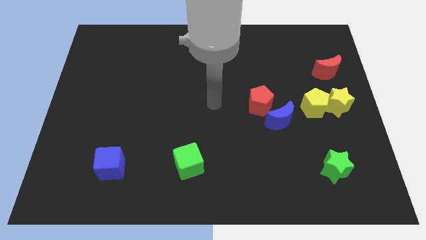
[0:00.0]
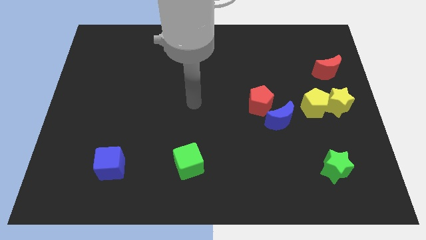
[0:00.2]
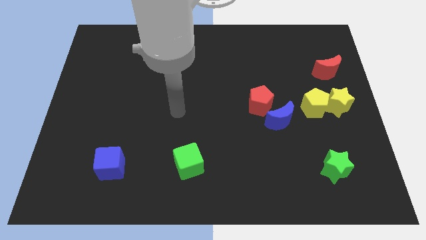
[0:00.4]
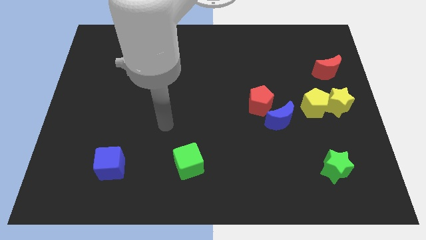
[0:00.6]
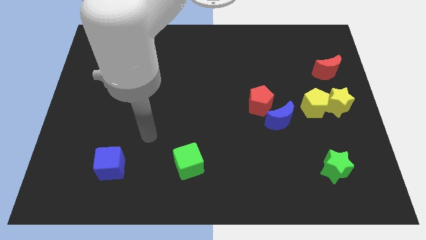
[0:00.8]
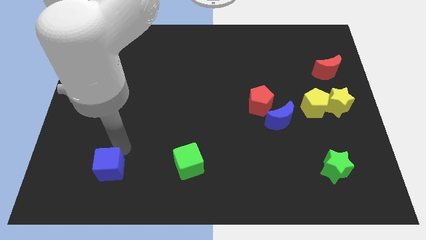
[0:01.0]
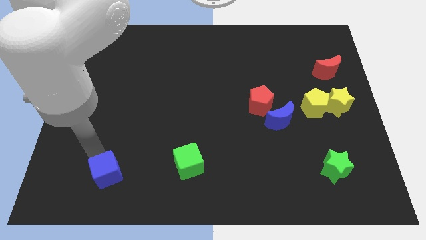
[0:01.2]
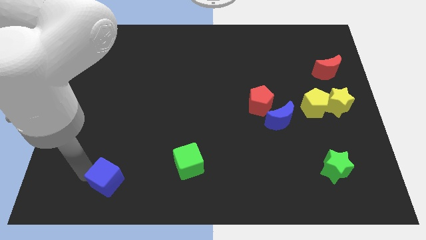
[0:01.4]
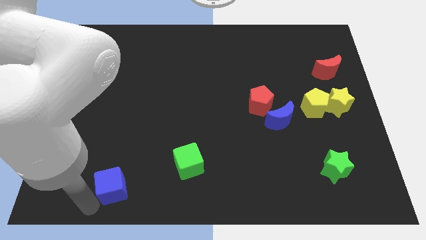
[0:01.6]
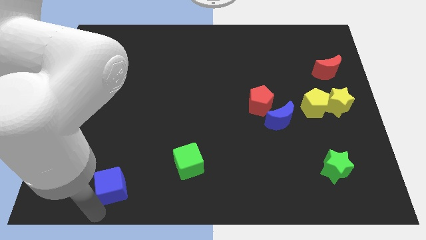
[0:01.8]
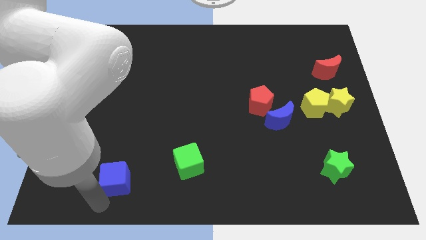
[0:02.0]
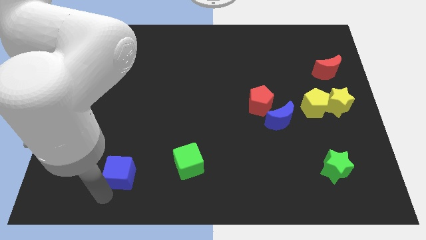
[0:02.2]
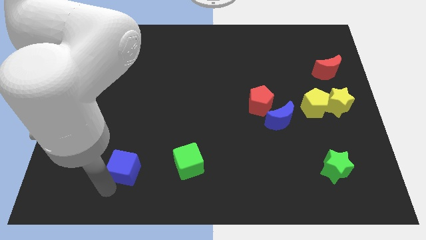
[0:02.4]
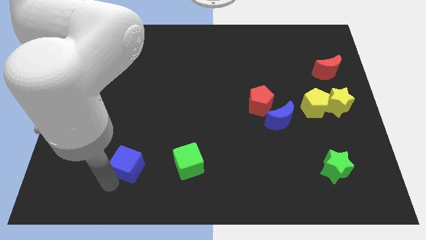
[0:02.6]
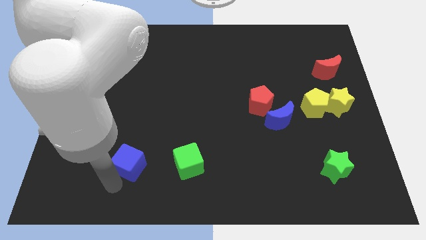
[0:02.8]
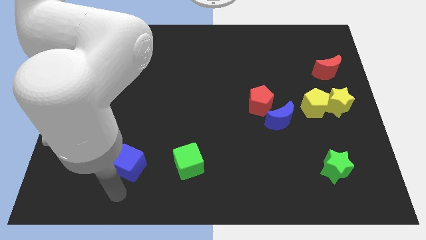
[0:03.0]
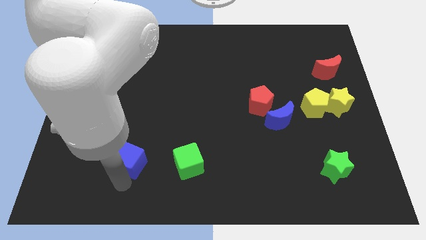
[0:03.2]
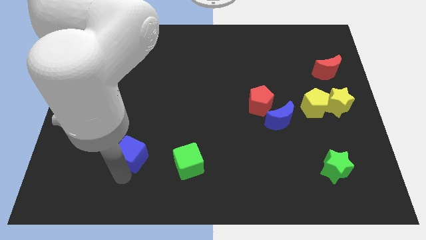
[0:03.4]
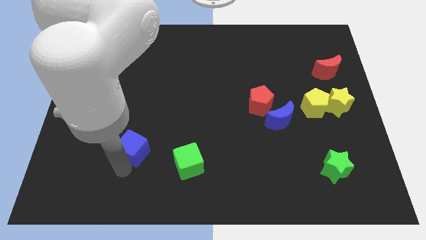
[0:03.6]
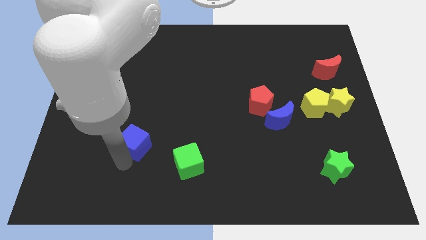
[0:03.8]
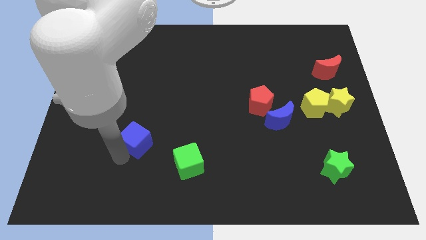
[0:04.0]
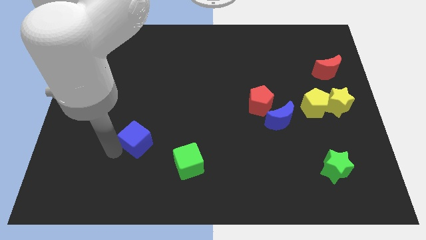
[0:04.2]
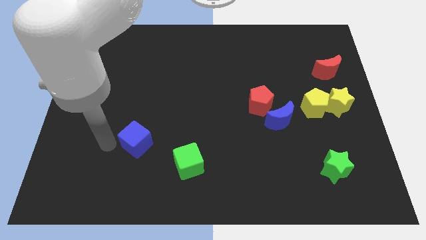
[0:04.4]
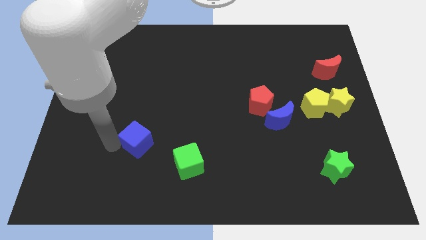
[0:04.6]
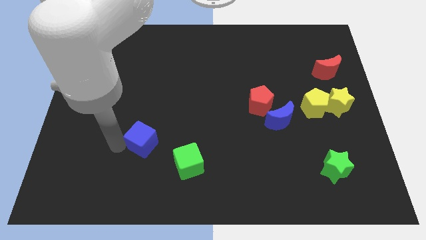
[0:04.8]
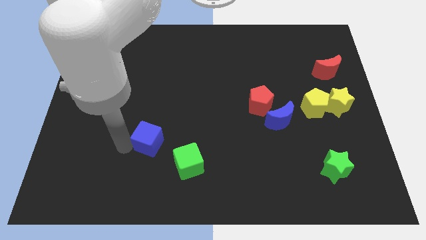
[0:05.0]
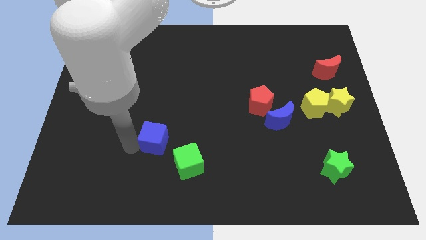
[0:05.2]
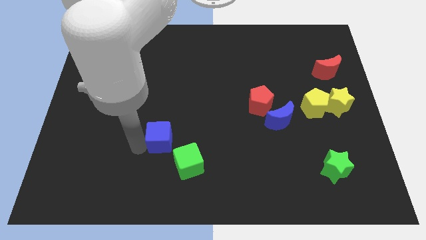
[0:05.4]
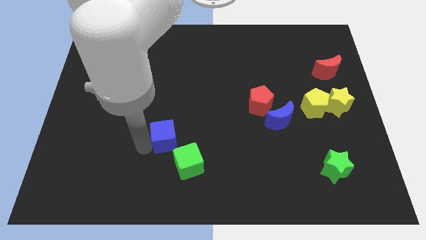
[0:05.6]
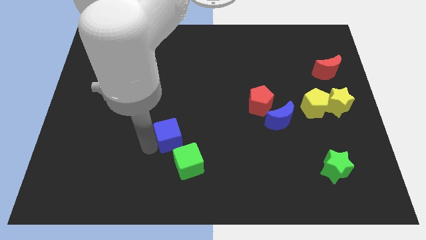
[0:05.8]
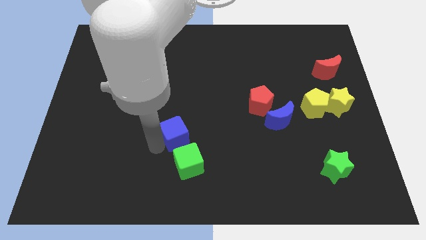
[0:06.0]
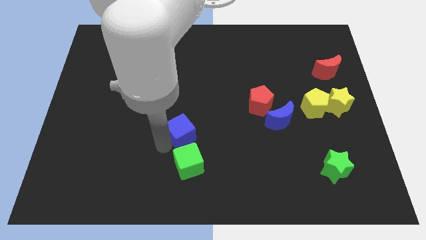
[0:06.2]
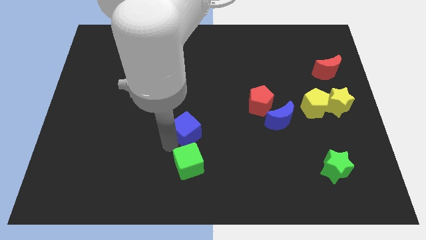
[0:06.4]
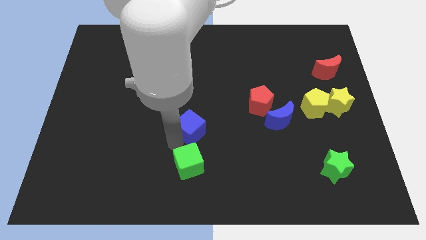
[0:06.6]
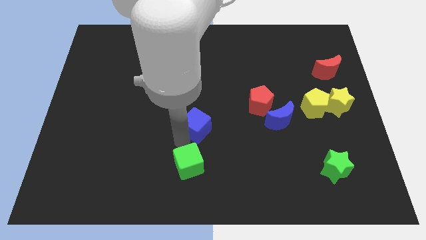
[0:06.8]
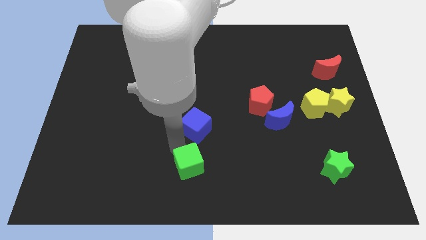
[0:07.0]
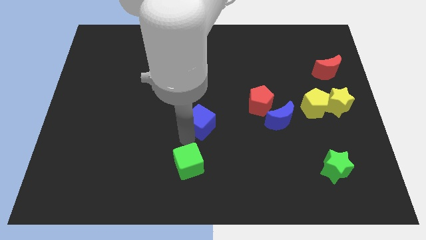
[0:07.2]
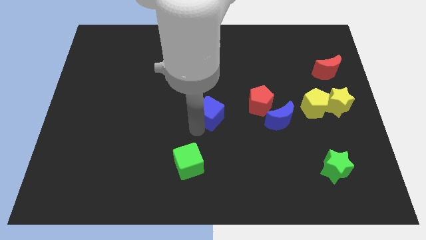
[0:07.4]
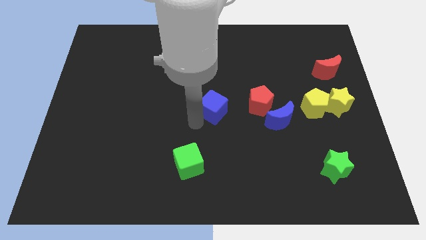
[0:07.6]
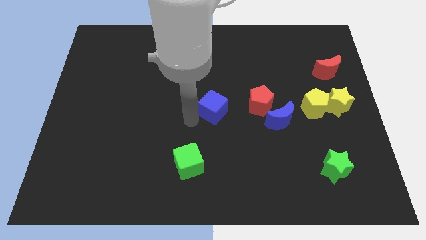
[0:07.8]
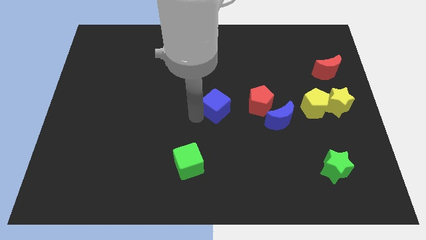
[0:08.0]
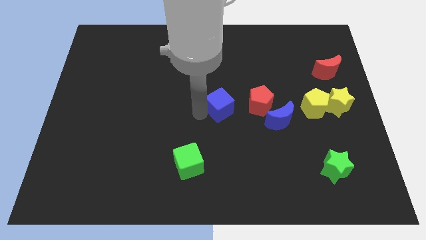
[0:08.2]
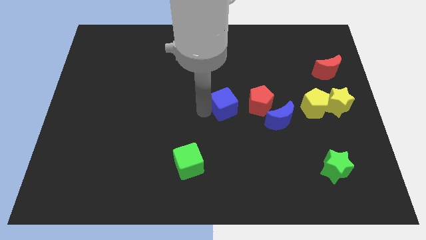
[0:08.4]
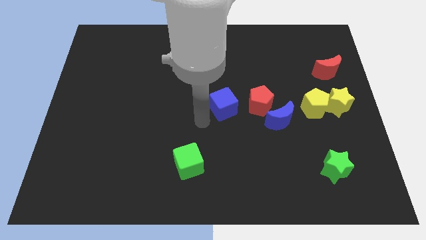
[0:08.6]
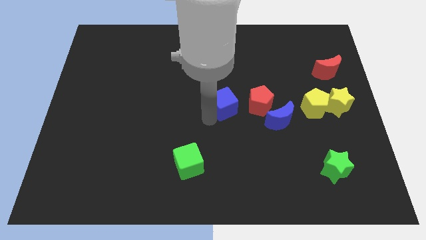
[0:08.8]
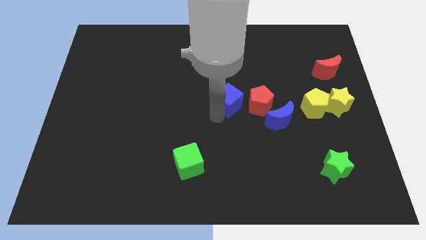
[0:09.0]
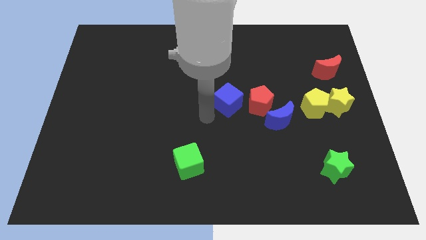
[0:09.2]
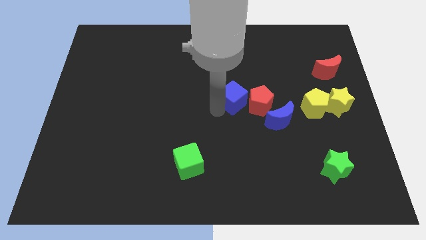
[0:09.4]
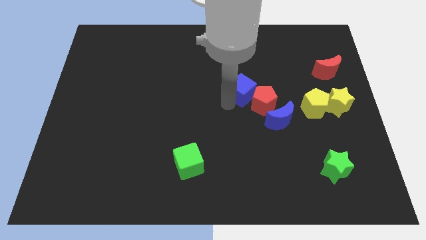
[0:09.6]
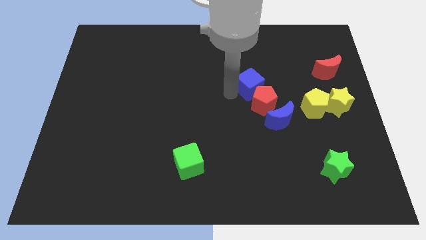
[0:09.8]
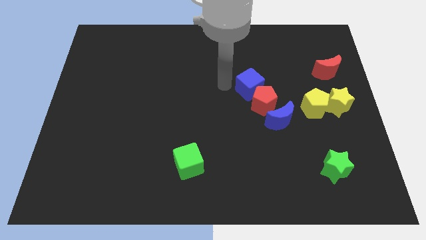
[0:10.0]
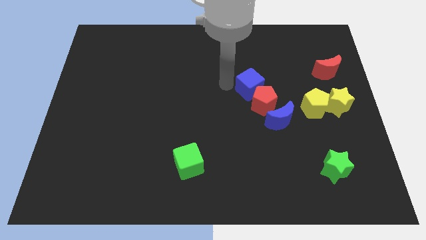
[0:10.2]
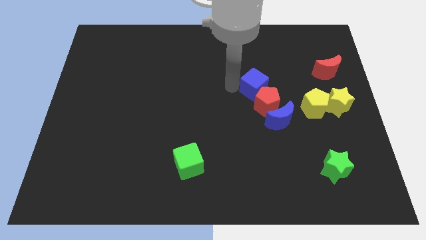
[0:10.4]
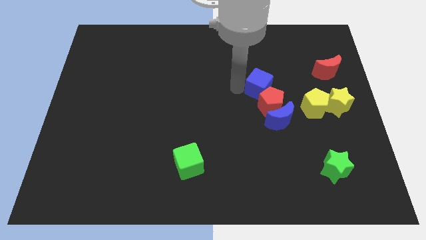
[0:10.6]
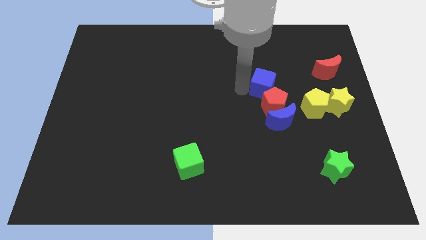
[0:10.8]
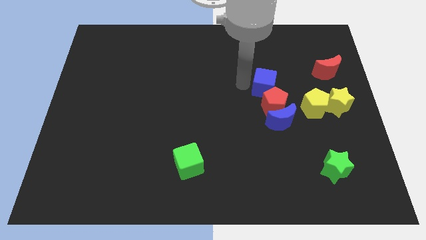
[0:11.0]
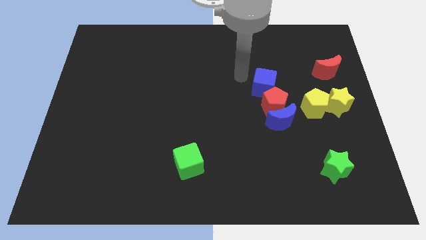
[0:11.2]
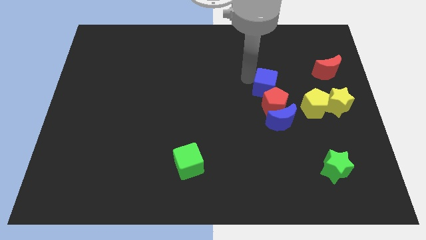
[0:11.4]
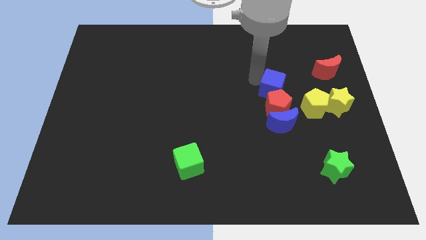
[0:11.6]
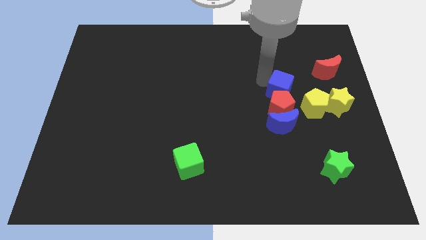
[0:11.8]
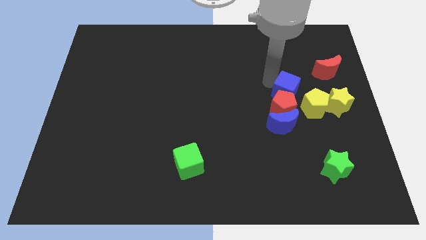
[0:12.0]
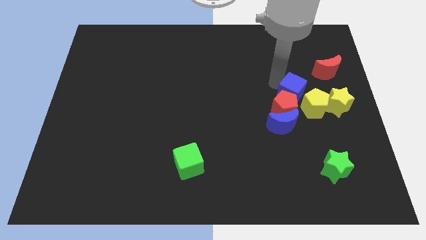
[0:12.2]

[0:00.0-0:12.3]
slide the blue cube to the top right of the blue moon

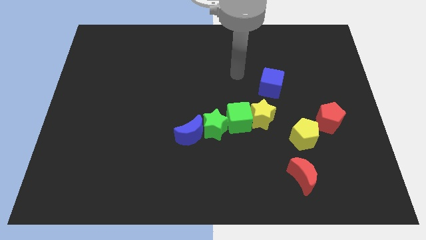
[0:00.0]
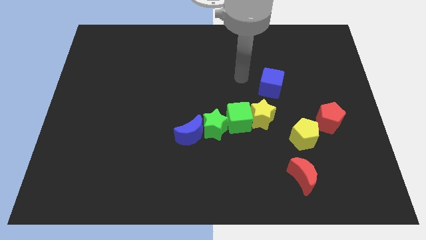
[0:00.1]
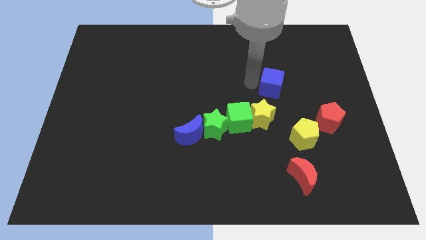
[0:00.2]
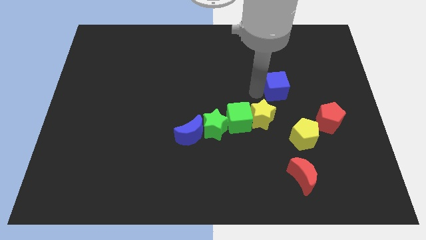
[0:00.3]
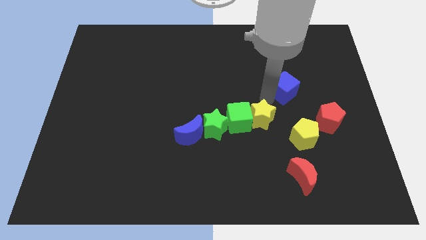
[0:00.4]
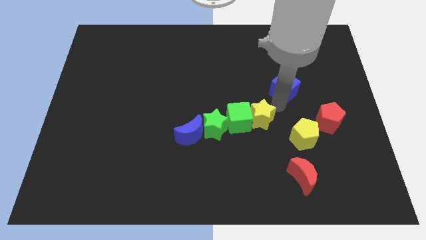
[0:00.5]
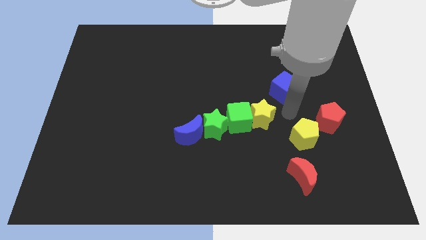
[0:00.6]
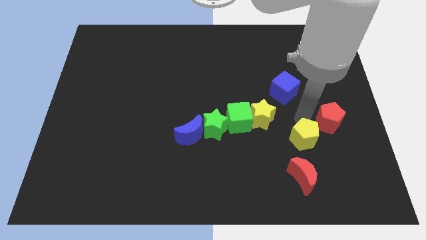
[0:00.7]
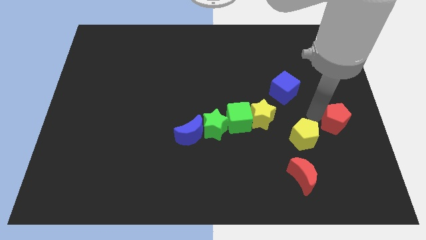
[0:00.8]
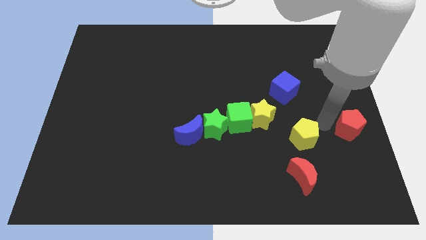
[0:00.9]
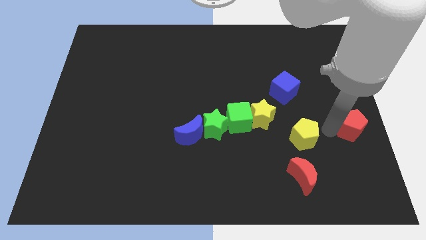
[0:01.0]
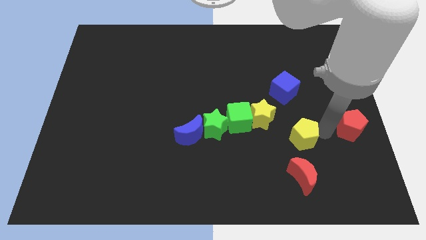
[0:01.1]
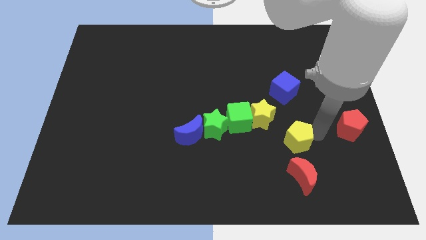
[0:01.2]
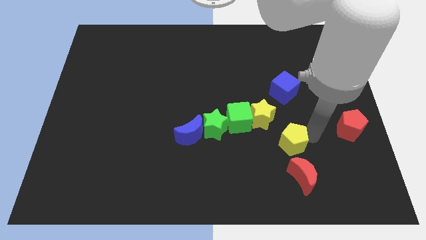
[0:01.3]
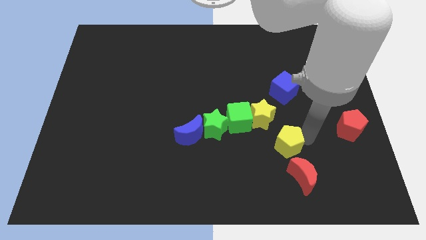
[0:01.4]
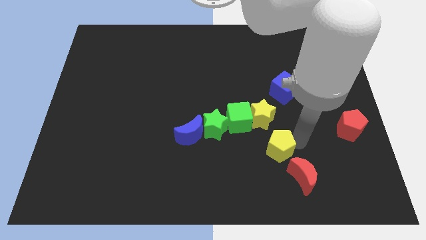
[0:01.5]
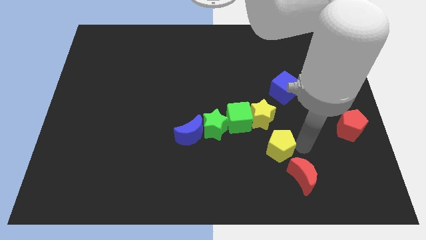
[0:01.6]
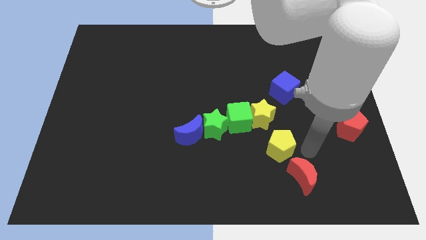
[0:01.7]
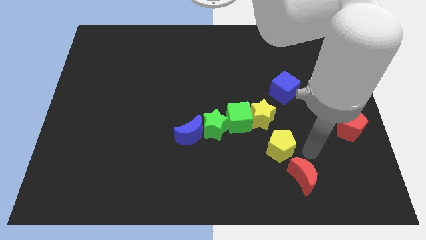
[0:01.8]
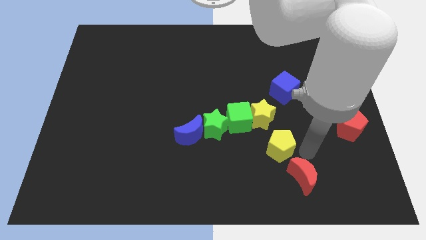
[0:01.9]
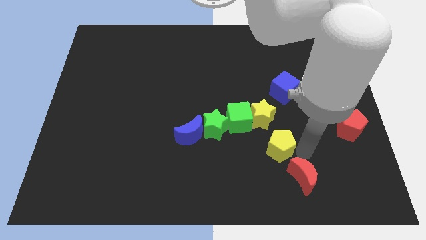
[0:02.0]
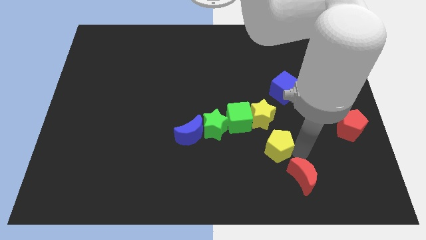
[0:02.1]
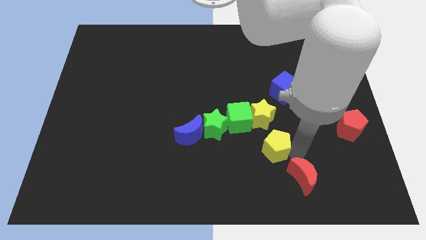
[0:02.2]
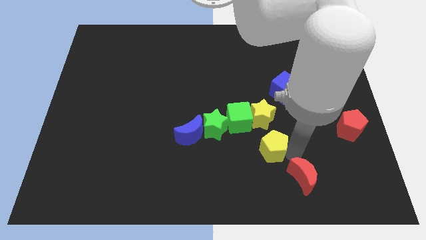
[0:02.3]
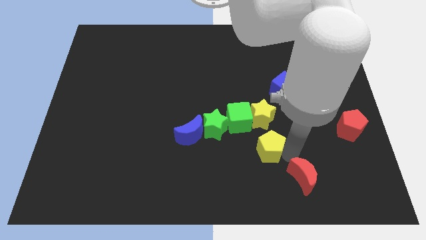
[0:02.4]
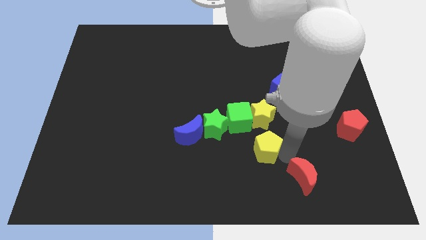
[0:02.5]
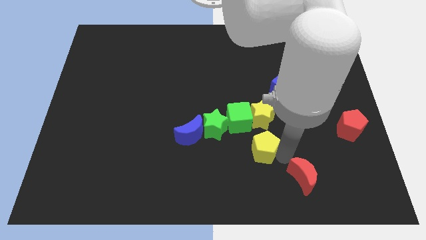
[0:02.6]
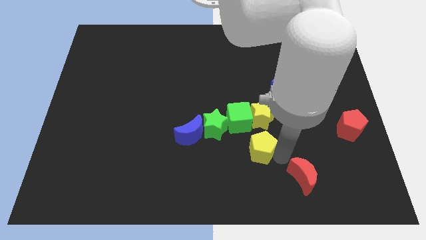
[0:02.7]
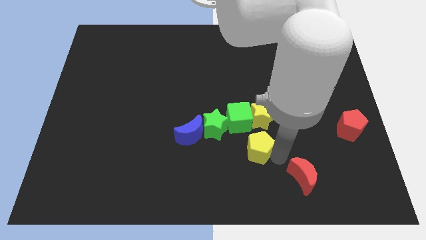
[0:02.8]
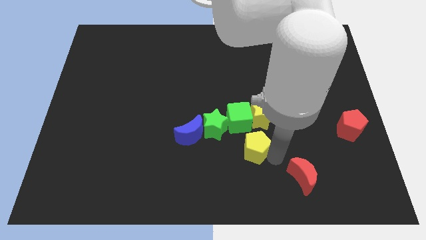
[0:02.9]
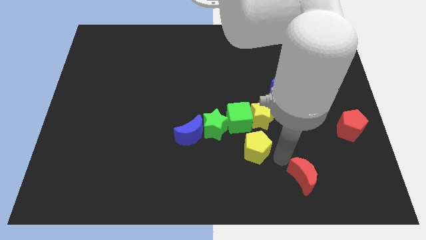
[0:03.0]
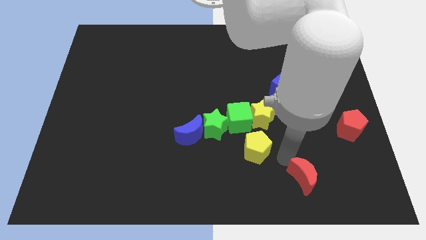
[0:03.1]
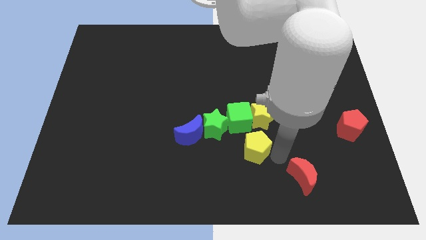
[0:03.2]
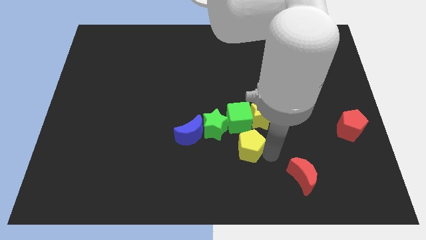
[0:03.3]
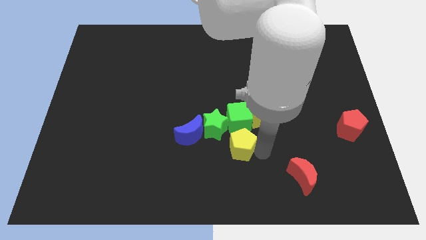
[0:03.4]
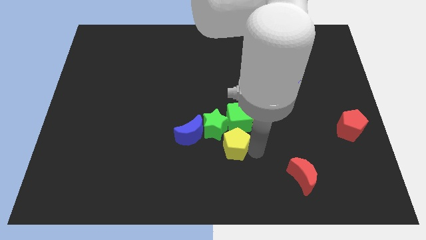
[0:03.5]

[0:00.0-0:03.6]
put the yellow pentagon to the bottom left of the green cube
